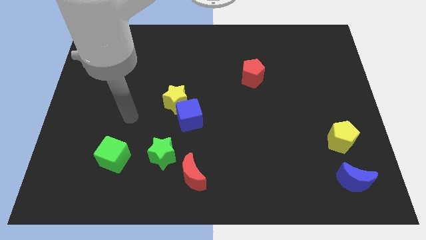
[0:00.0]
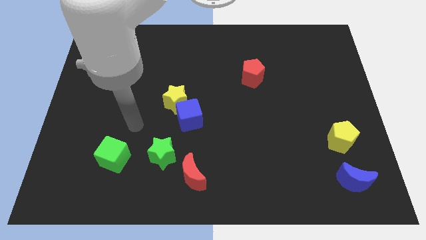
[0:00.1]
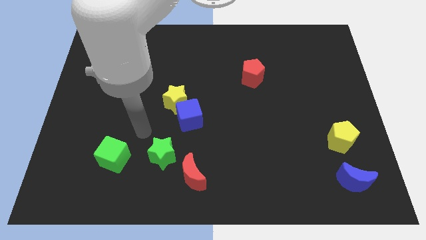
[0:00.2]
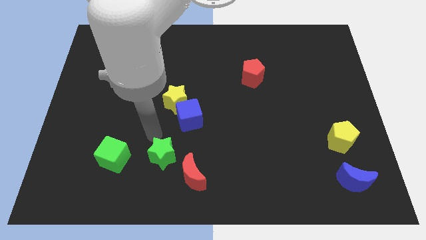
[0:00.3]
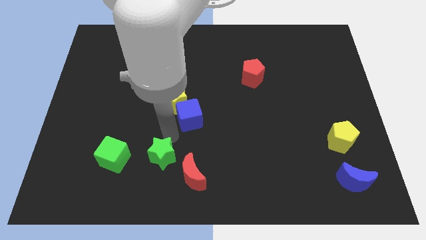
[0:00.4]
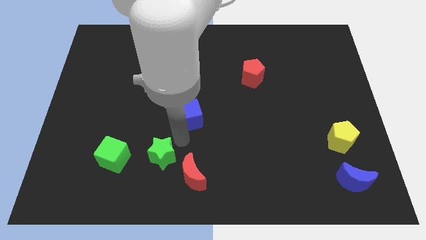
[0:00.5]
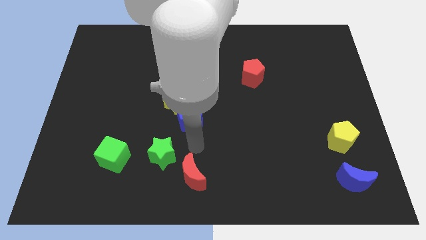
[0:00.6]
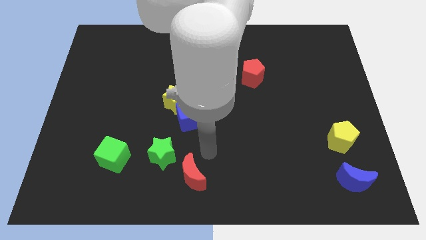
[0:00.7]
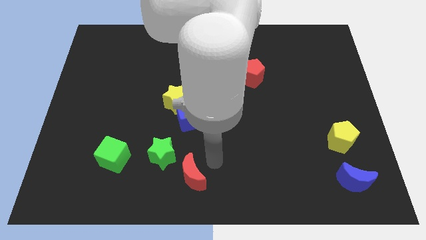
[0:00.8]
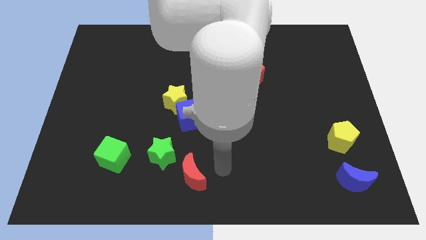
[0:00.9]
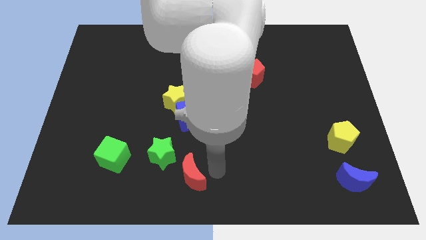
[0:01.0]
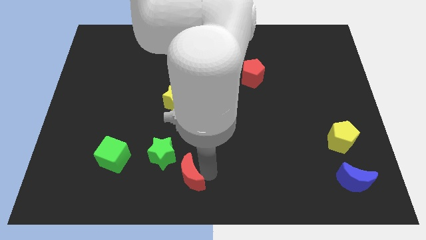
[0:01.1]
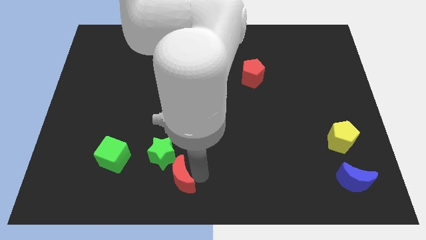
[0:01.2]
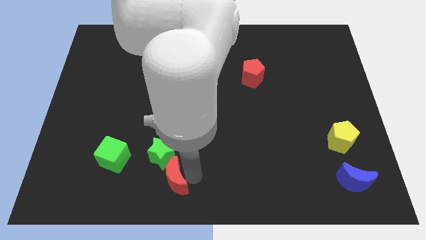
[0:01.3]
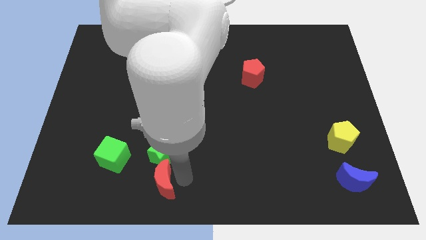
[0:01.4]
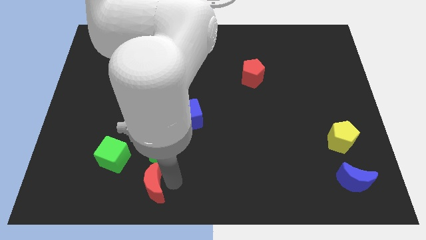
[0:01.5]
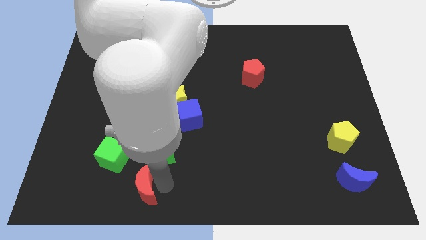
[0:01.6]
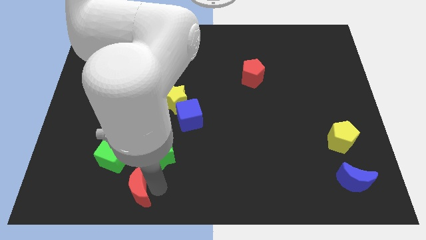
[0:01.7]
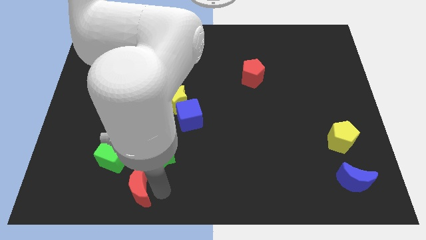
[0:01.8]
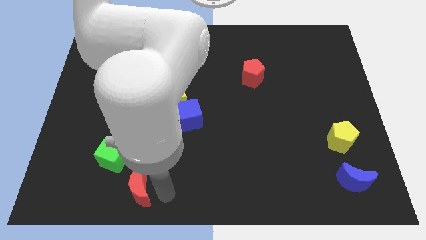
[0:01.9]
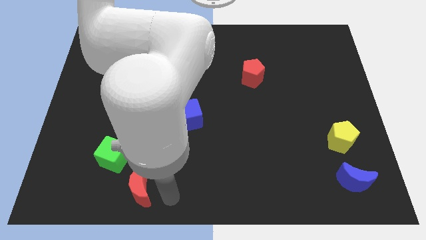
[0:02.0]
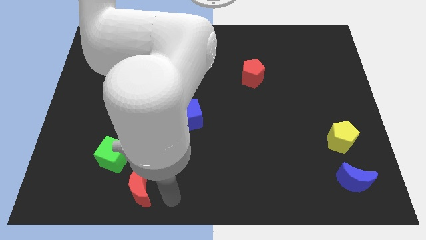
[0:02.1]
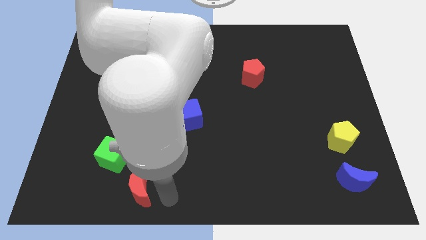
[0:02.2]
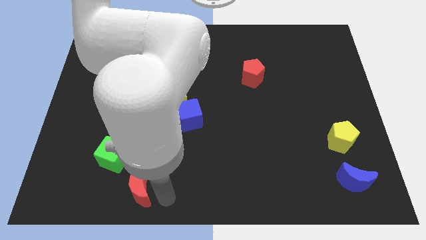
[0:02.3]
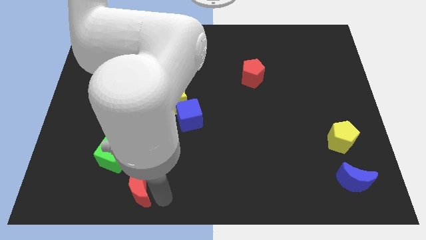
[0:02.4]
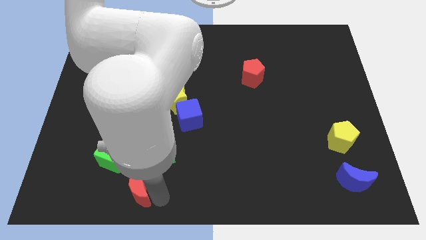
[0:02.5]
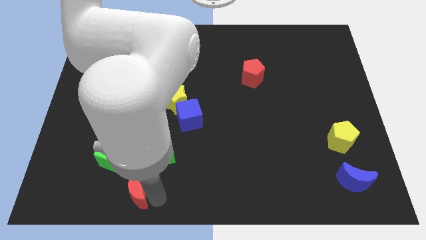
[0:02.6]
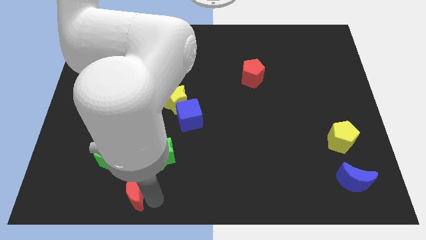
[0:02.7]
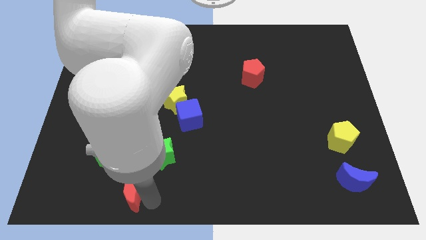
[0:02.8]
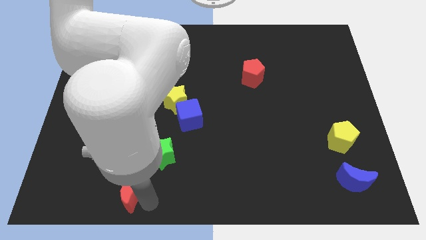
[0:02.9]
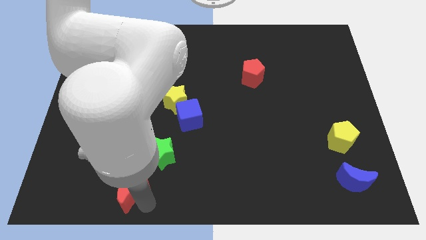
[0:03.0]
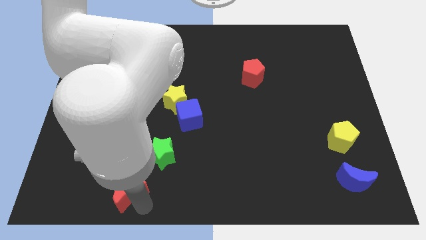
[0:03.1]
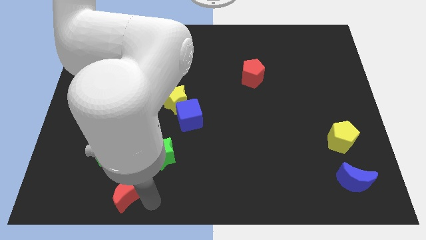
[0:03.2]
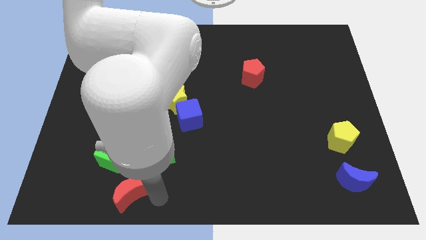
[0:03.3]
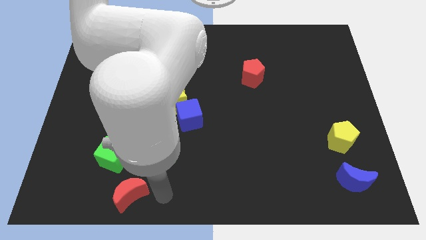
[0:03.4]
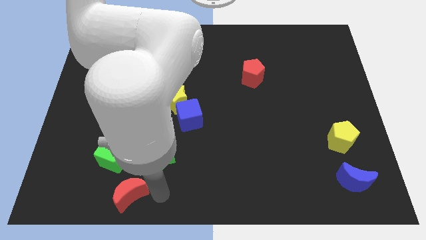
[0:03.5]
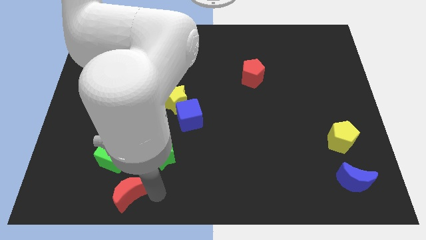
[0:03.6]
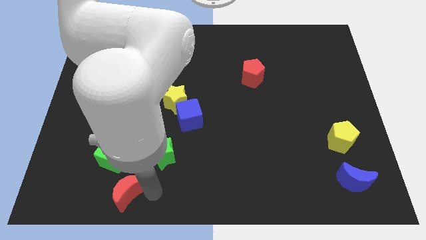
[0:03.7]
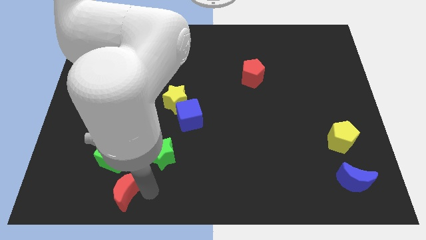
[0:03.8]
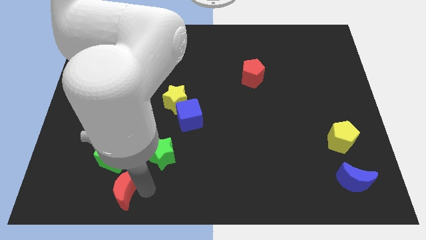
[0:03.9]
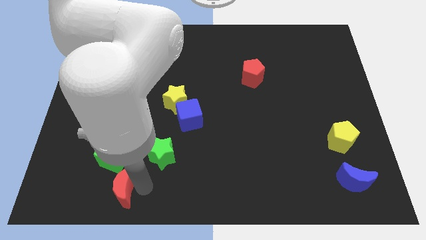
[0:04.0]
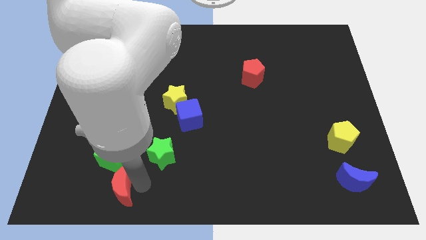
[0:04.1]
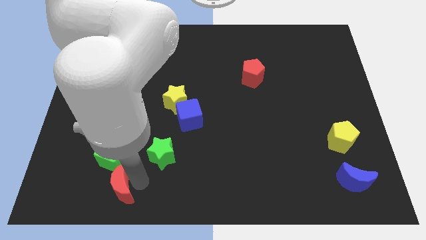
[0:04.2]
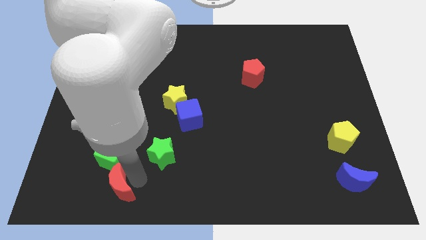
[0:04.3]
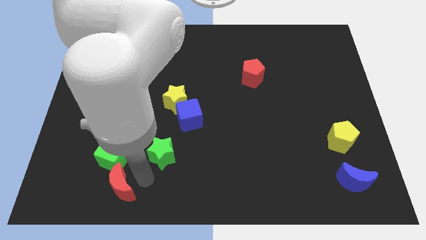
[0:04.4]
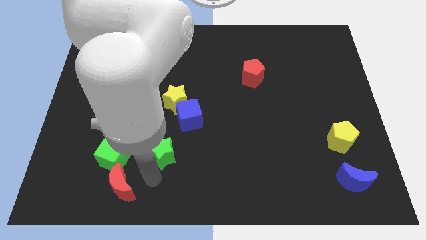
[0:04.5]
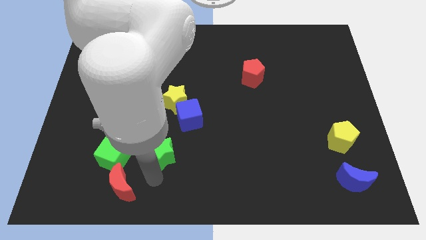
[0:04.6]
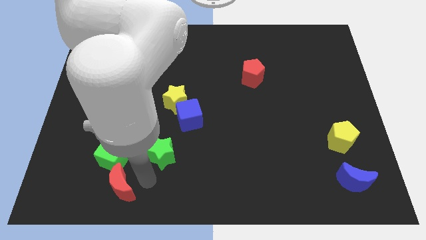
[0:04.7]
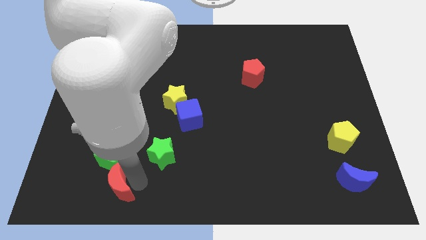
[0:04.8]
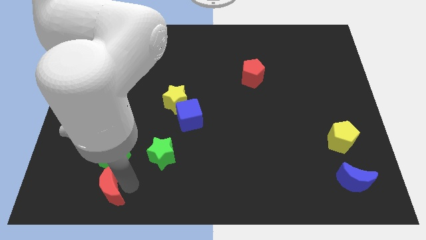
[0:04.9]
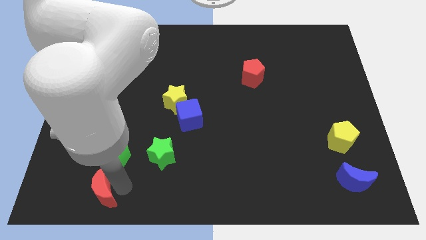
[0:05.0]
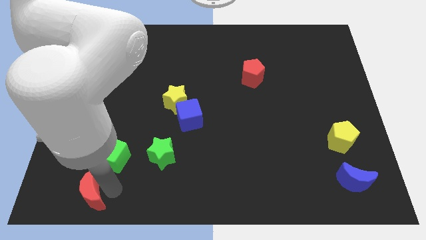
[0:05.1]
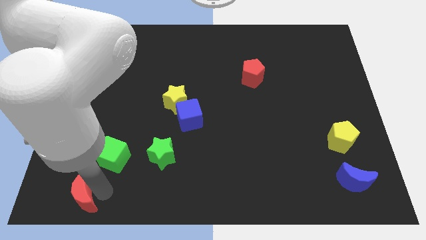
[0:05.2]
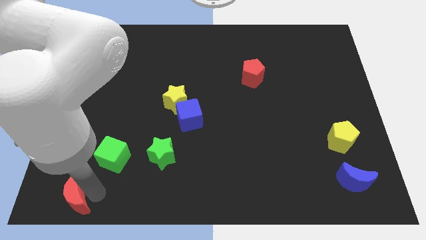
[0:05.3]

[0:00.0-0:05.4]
slide the red moon to the bottom left

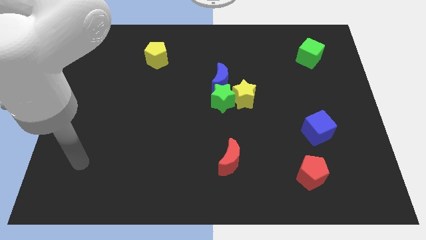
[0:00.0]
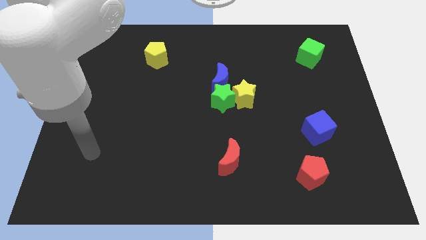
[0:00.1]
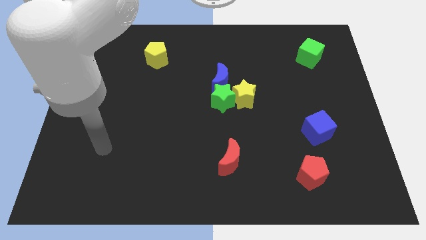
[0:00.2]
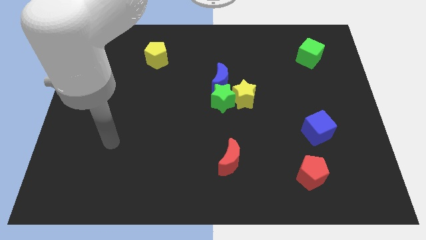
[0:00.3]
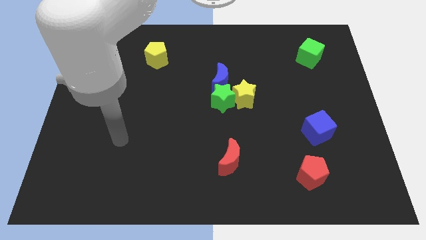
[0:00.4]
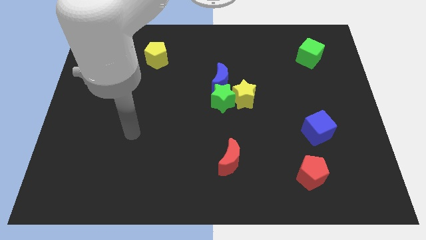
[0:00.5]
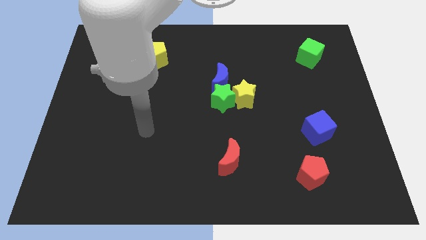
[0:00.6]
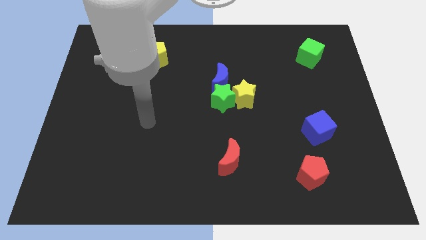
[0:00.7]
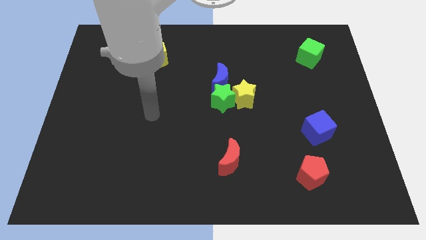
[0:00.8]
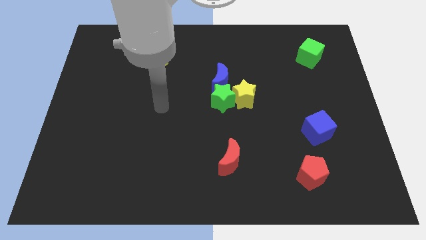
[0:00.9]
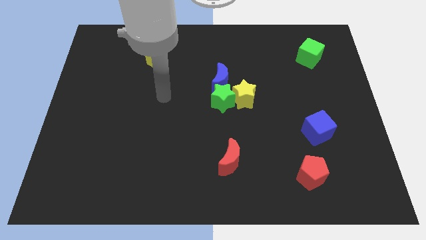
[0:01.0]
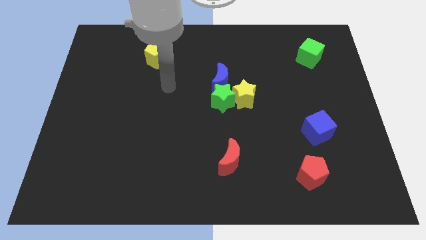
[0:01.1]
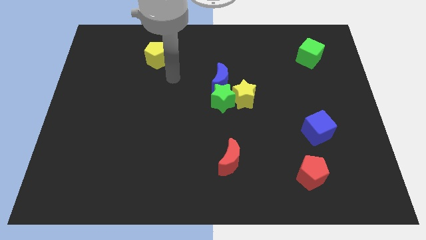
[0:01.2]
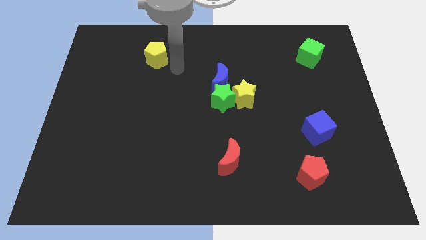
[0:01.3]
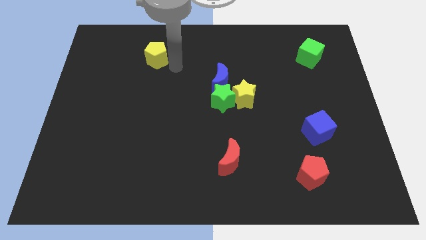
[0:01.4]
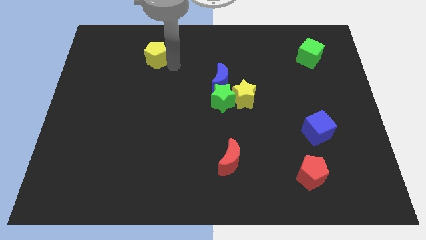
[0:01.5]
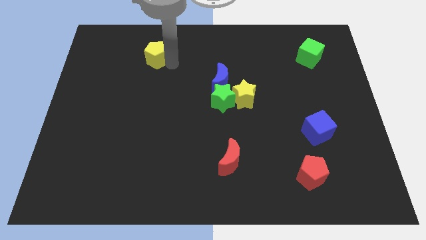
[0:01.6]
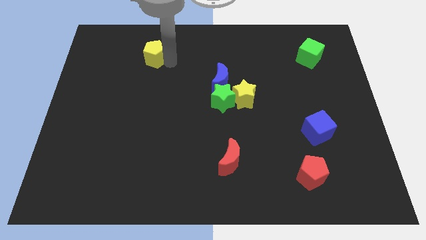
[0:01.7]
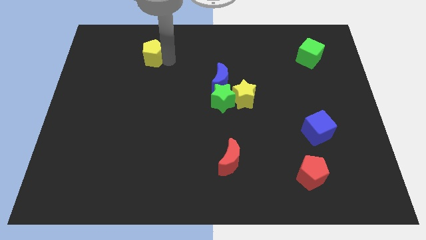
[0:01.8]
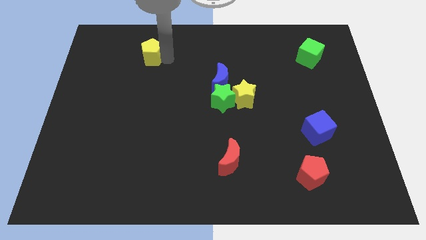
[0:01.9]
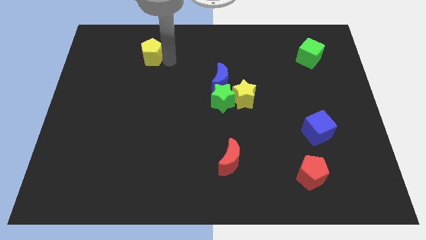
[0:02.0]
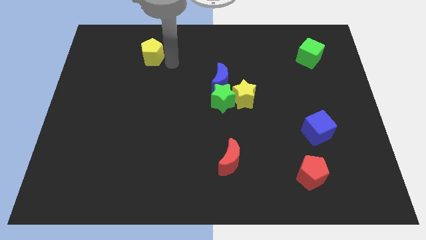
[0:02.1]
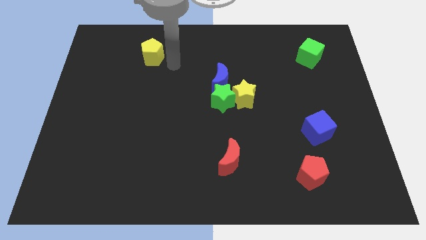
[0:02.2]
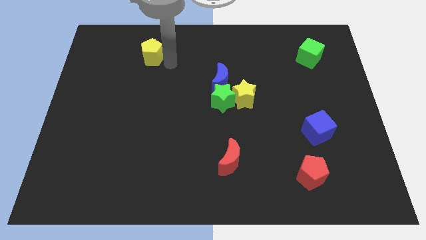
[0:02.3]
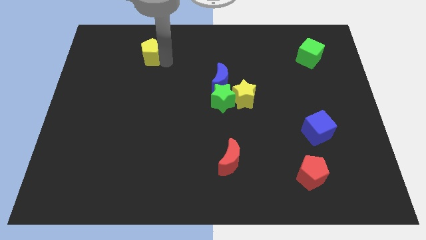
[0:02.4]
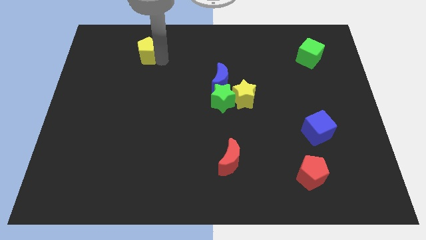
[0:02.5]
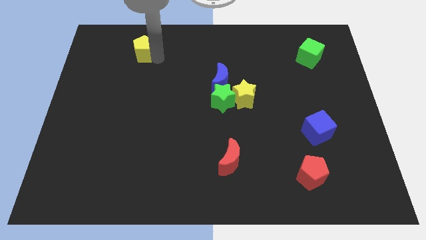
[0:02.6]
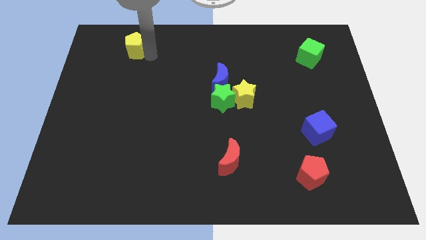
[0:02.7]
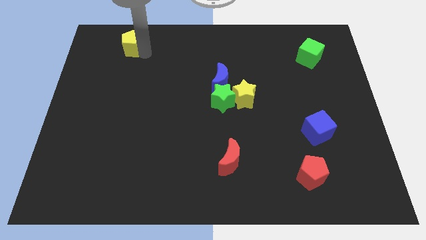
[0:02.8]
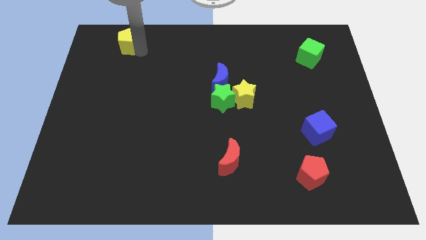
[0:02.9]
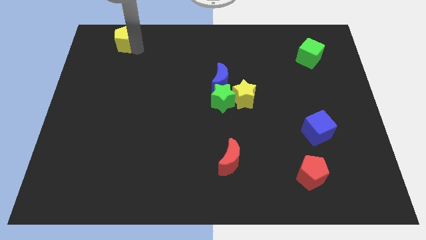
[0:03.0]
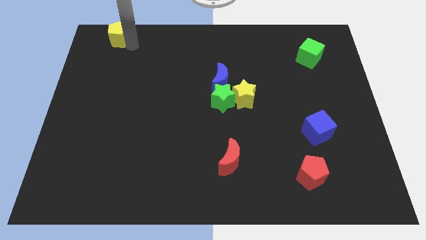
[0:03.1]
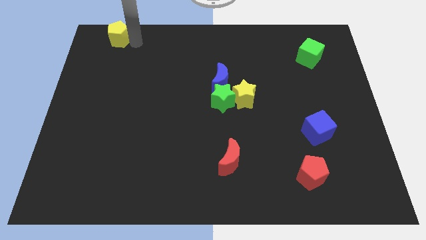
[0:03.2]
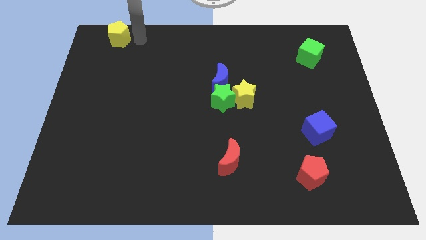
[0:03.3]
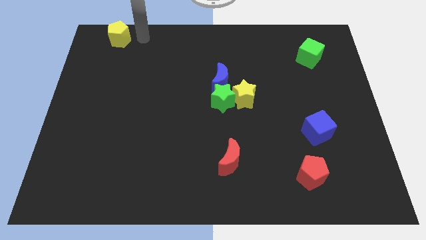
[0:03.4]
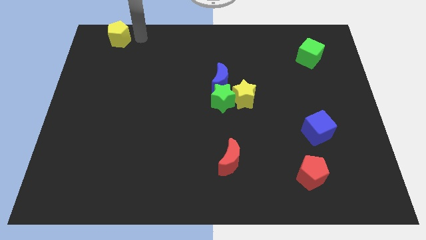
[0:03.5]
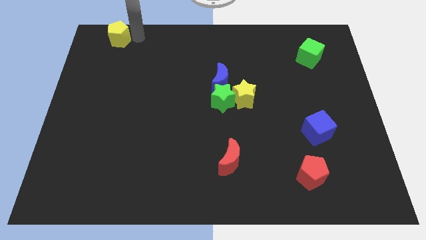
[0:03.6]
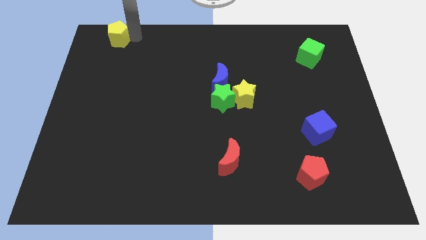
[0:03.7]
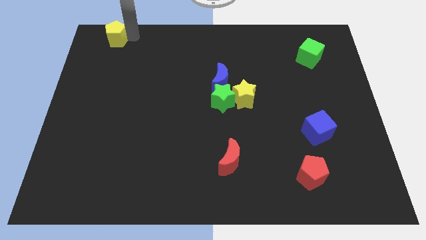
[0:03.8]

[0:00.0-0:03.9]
put the yellow pentagon to the upper left corner
